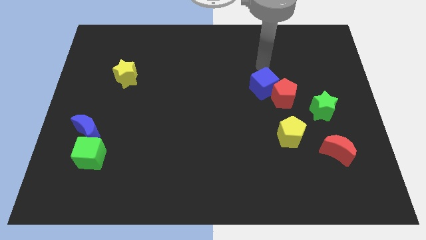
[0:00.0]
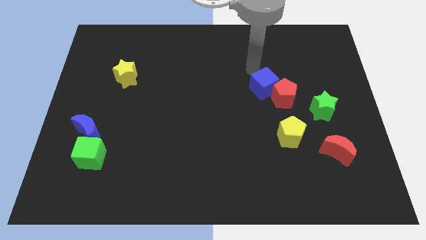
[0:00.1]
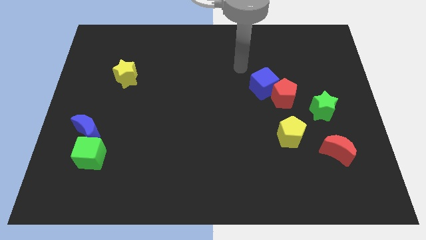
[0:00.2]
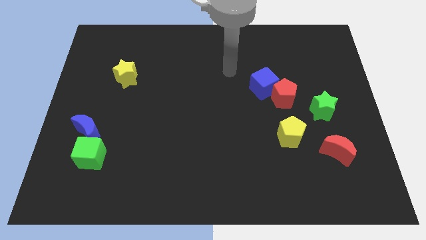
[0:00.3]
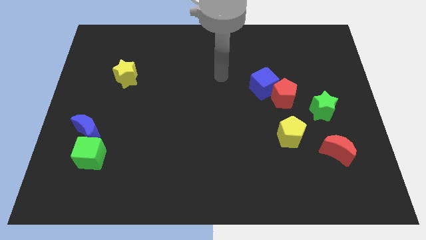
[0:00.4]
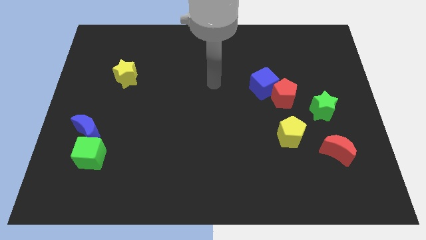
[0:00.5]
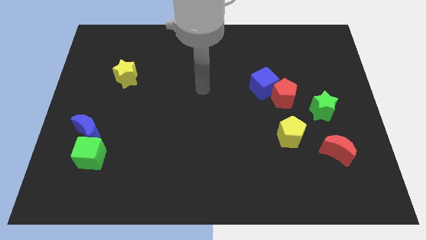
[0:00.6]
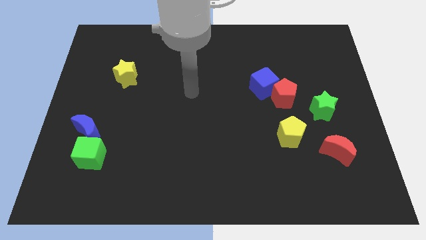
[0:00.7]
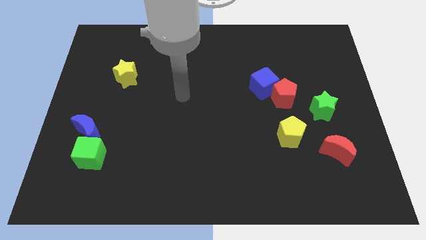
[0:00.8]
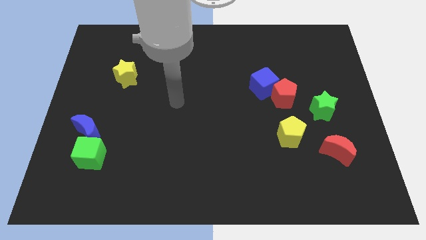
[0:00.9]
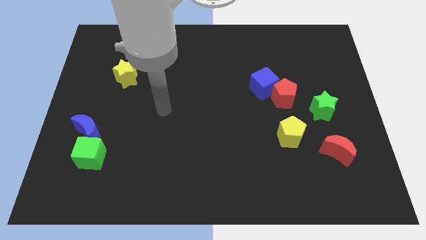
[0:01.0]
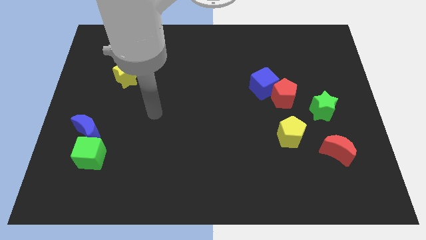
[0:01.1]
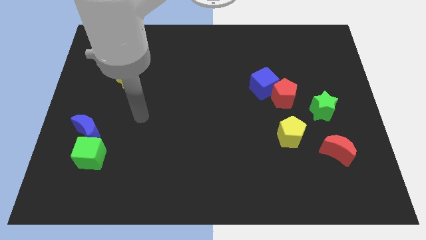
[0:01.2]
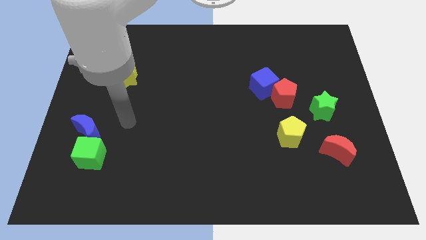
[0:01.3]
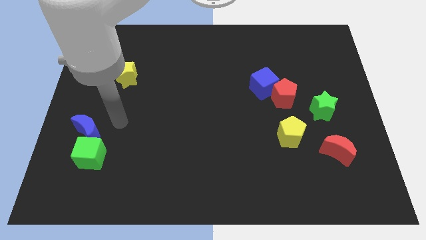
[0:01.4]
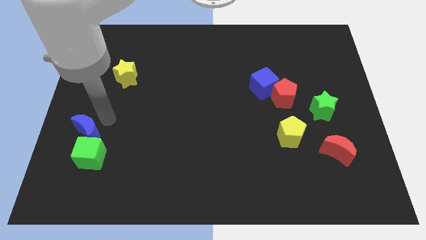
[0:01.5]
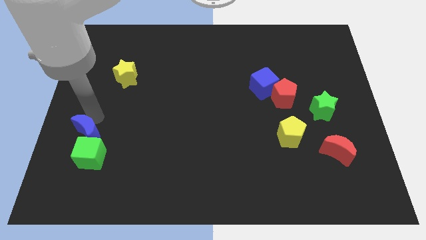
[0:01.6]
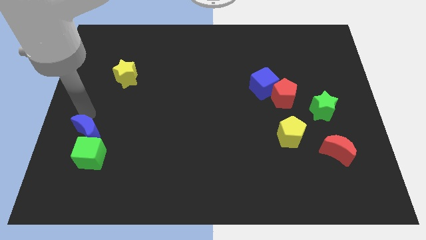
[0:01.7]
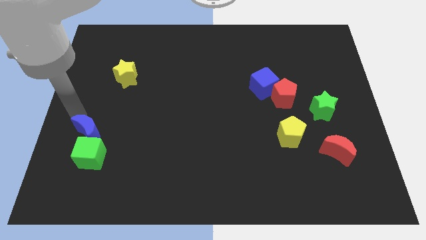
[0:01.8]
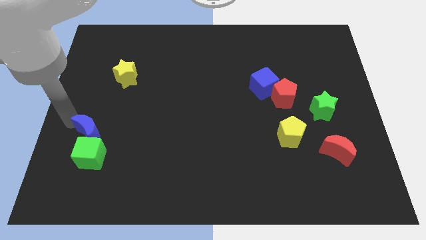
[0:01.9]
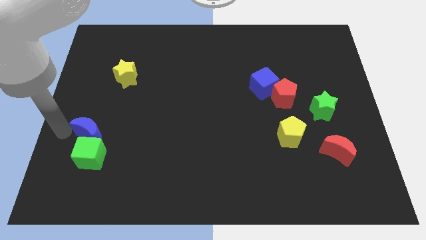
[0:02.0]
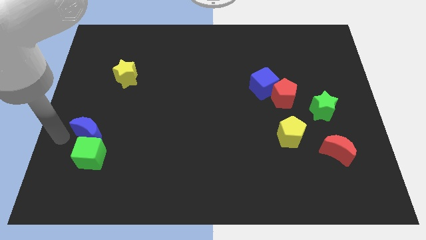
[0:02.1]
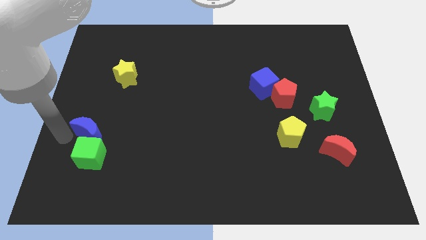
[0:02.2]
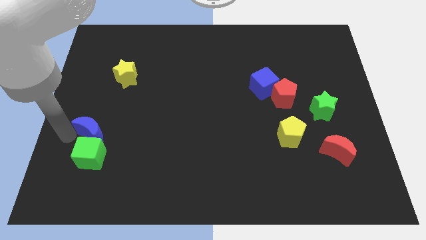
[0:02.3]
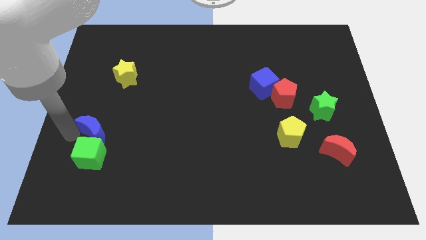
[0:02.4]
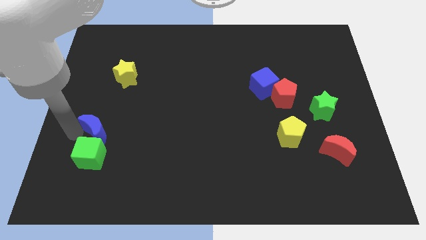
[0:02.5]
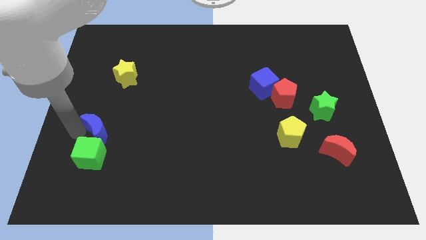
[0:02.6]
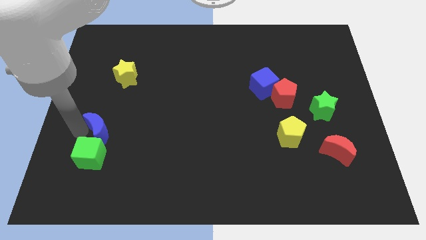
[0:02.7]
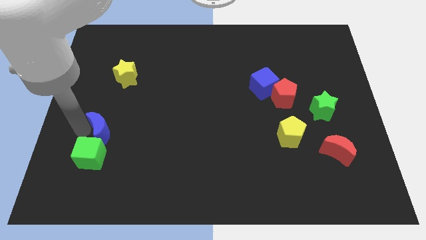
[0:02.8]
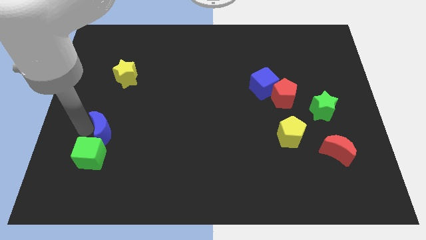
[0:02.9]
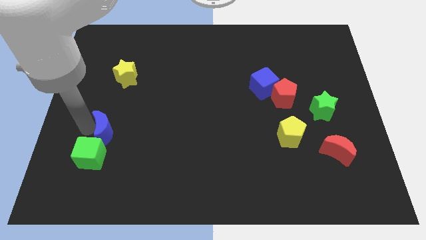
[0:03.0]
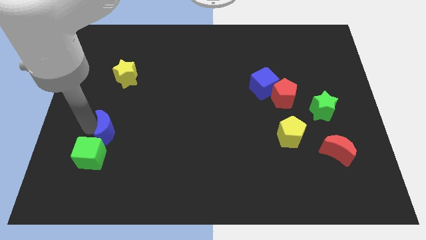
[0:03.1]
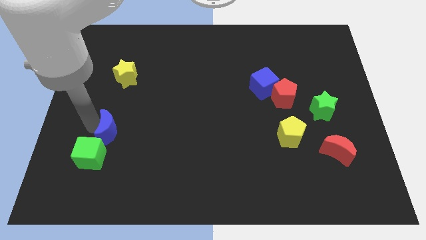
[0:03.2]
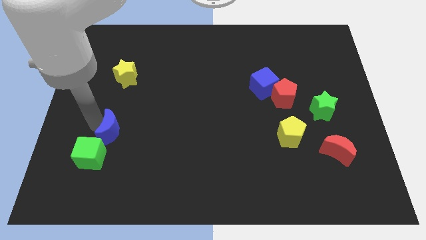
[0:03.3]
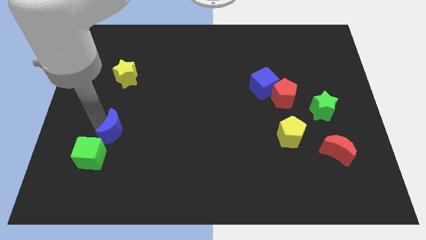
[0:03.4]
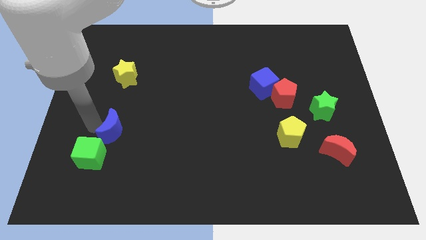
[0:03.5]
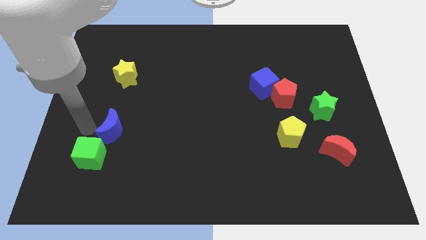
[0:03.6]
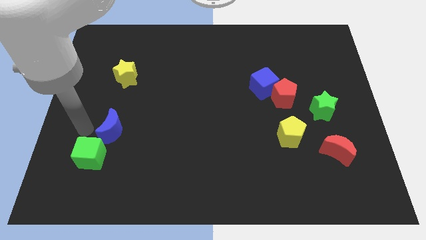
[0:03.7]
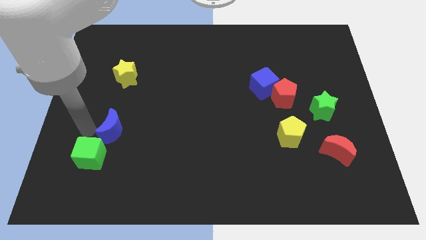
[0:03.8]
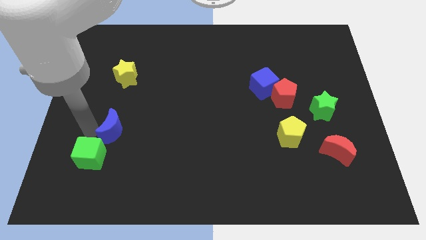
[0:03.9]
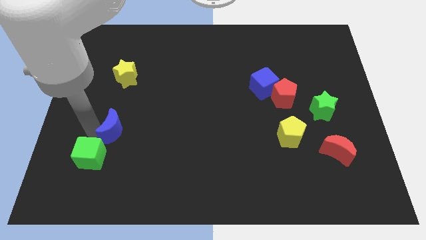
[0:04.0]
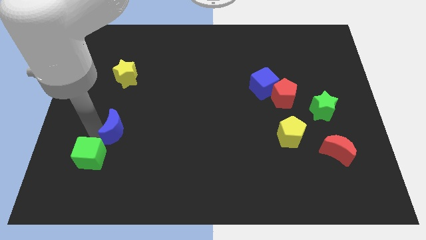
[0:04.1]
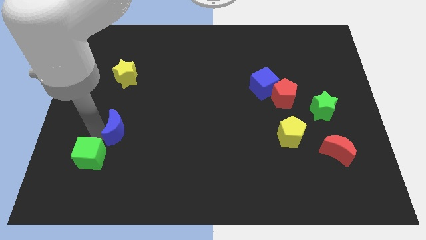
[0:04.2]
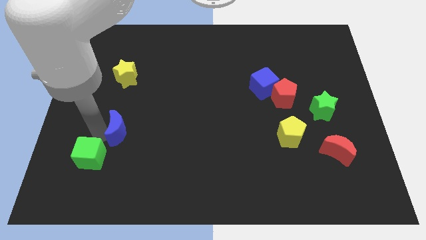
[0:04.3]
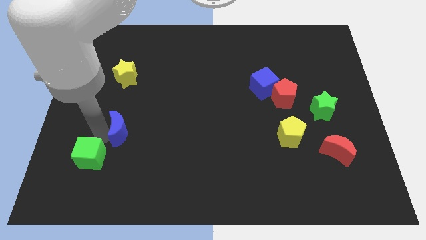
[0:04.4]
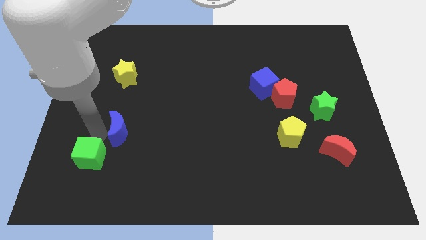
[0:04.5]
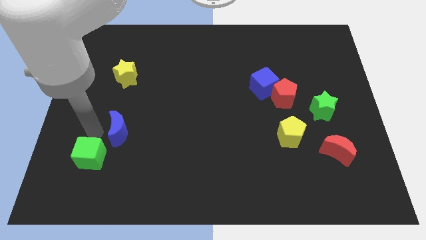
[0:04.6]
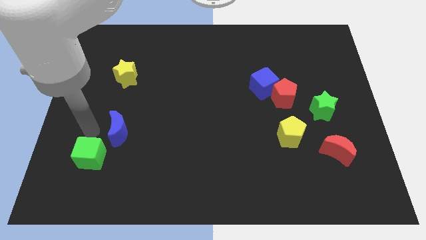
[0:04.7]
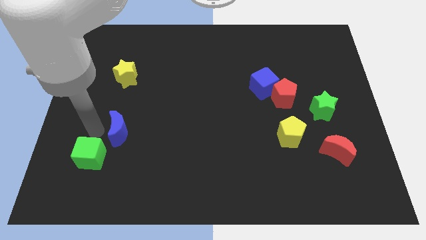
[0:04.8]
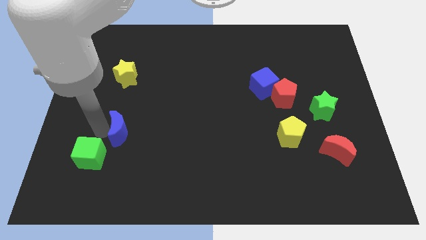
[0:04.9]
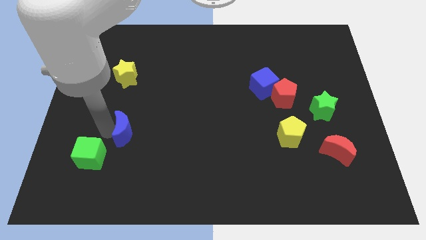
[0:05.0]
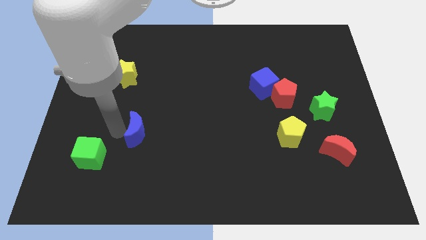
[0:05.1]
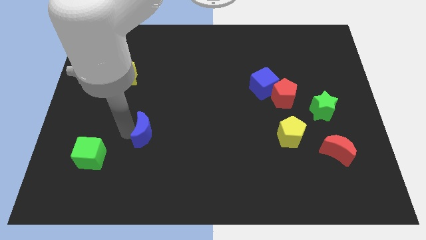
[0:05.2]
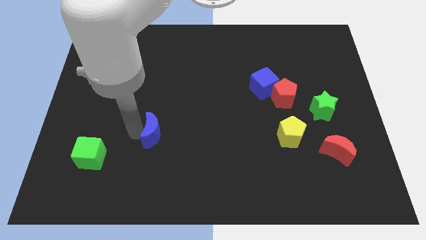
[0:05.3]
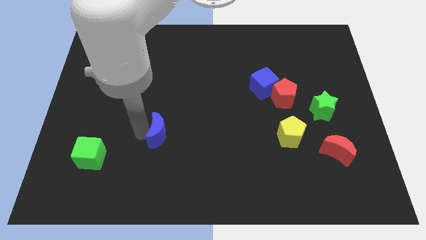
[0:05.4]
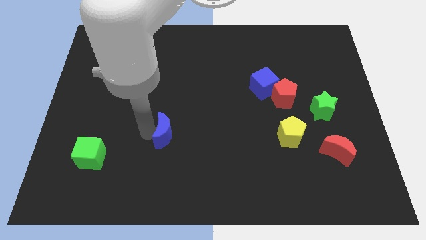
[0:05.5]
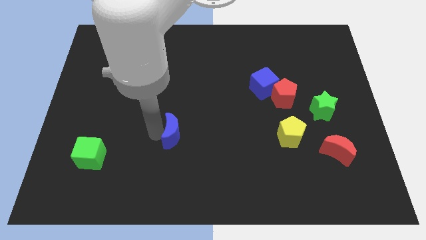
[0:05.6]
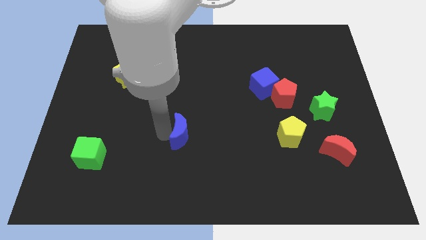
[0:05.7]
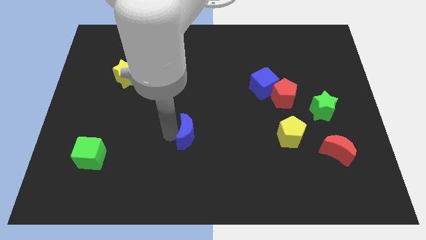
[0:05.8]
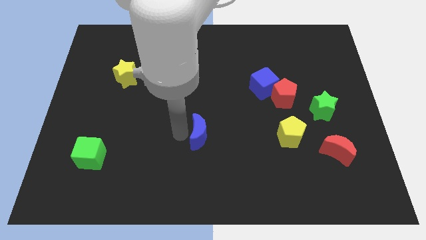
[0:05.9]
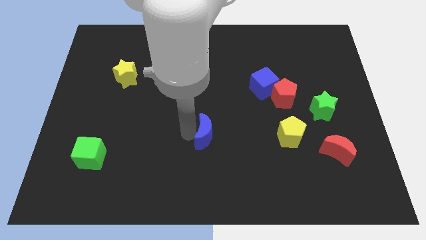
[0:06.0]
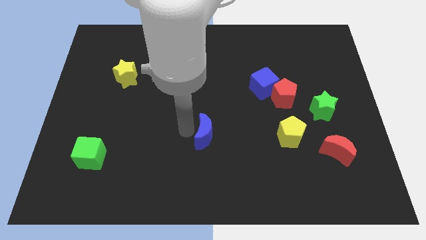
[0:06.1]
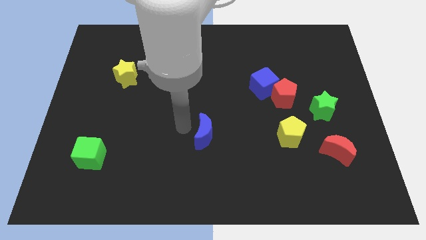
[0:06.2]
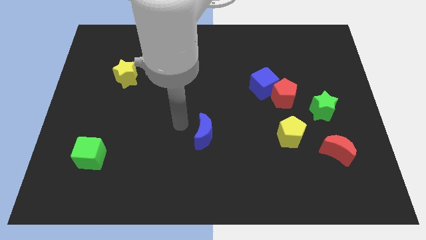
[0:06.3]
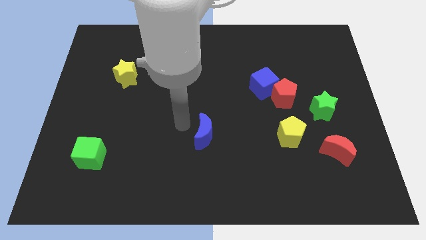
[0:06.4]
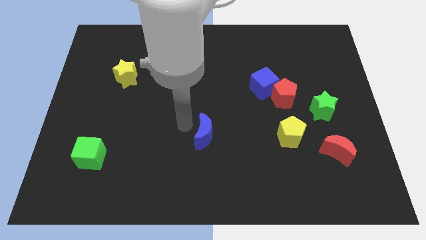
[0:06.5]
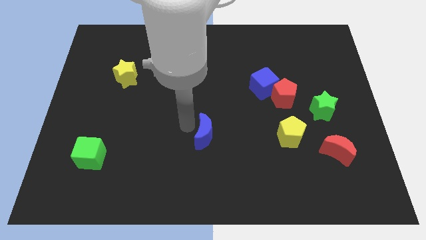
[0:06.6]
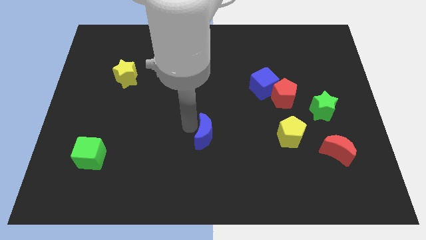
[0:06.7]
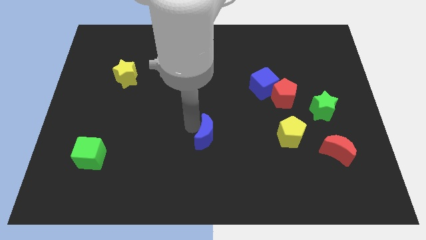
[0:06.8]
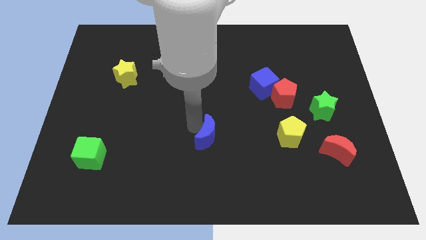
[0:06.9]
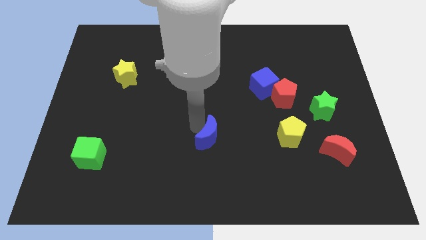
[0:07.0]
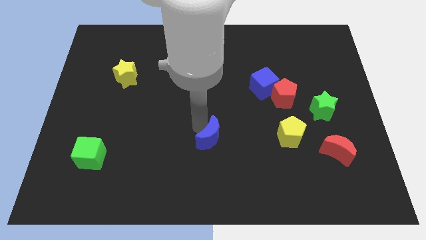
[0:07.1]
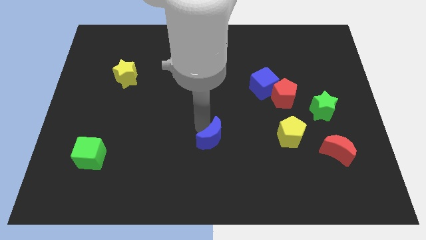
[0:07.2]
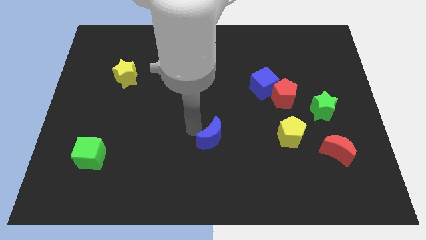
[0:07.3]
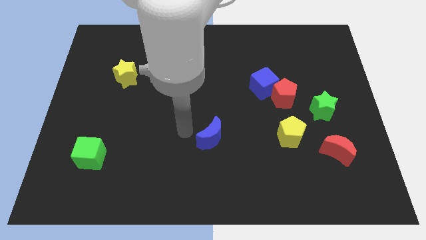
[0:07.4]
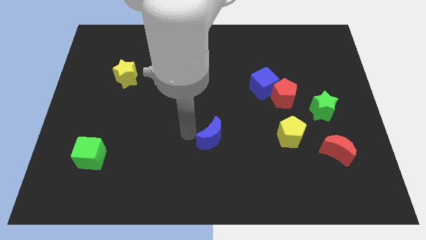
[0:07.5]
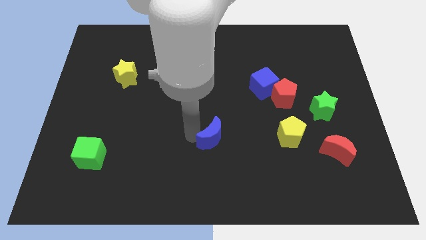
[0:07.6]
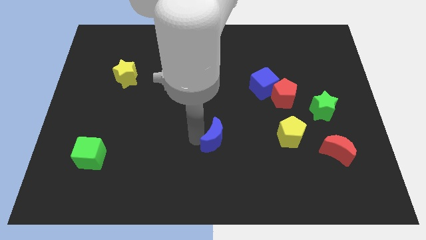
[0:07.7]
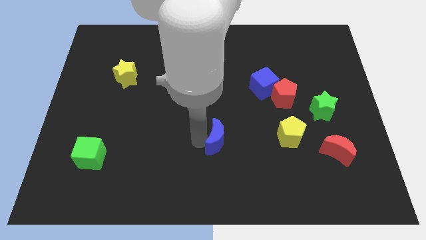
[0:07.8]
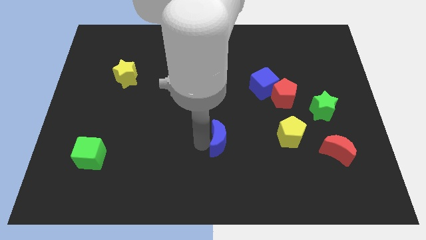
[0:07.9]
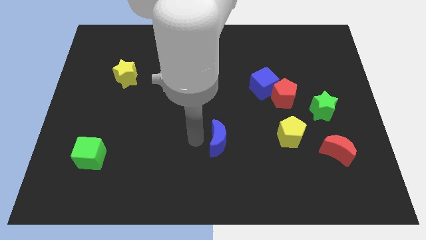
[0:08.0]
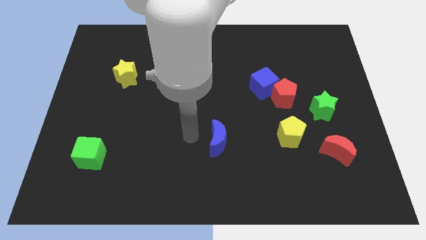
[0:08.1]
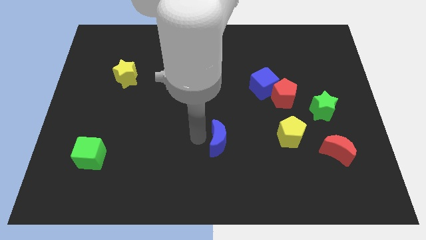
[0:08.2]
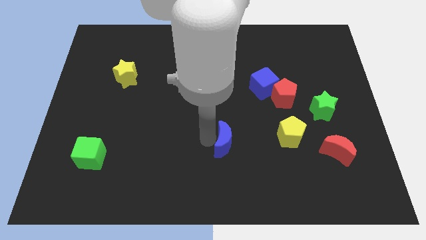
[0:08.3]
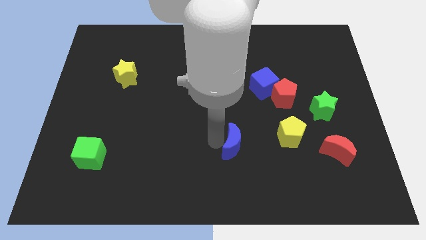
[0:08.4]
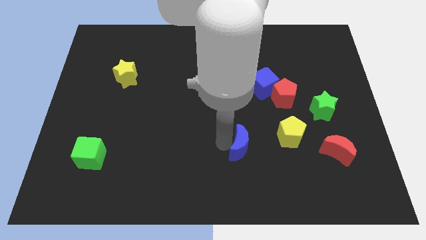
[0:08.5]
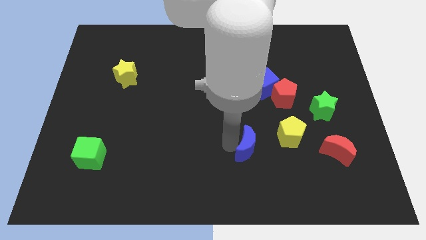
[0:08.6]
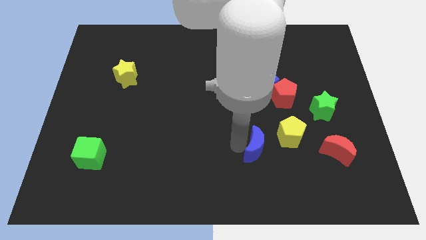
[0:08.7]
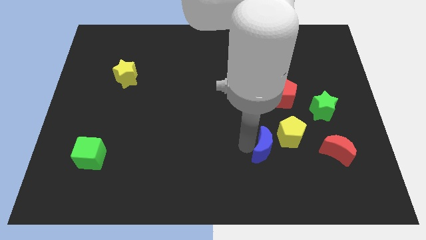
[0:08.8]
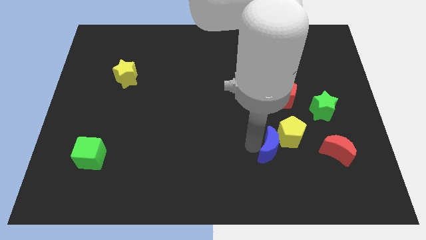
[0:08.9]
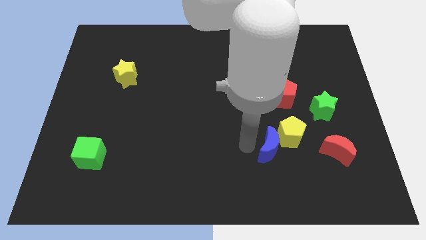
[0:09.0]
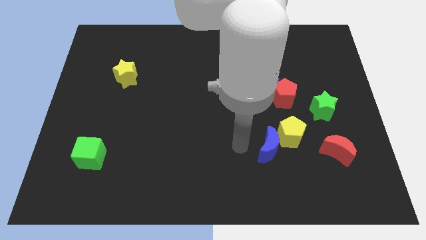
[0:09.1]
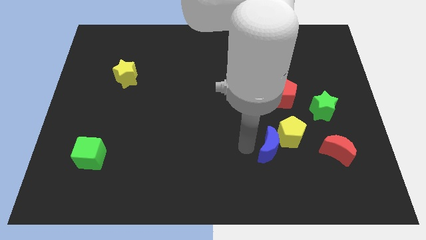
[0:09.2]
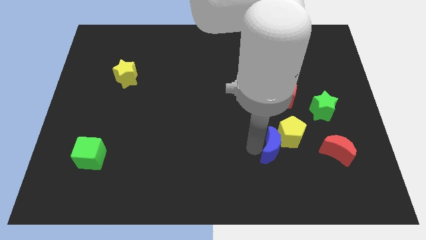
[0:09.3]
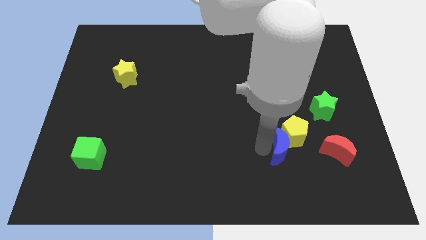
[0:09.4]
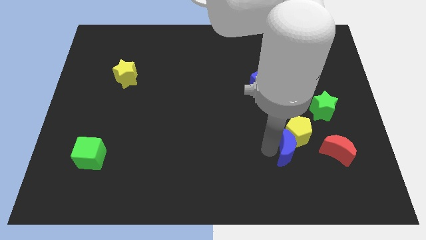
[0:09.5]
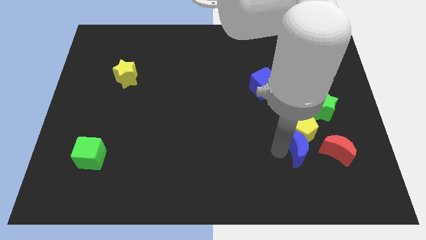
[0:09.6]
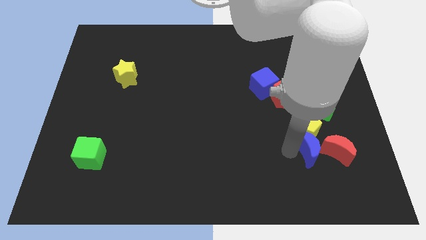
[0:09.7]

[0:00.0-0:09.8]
put the blue moon towards the red moon
